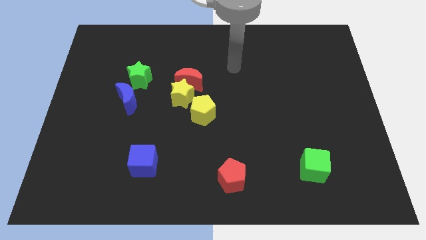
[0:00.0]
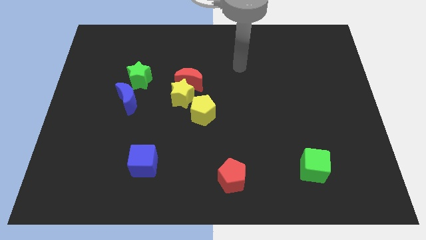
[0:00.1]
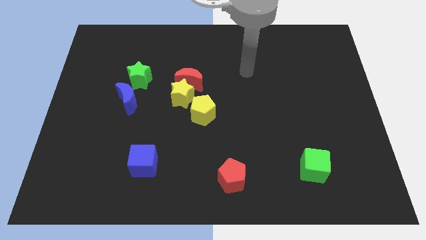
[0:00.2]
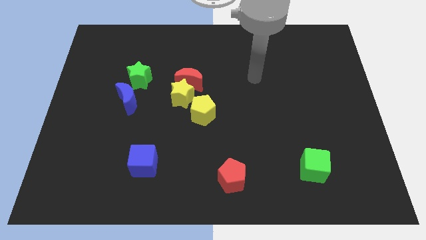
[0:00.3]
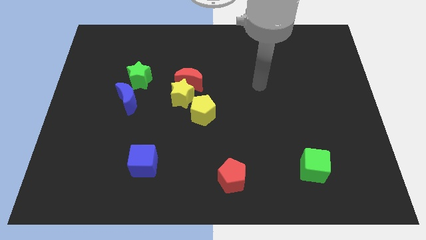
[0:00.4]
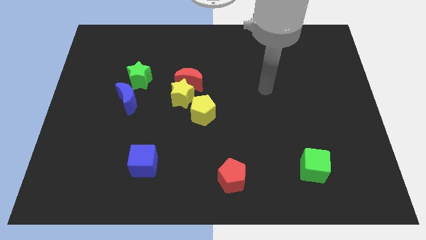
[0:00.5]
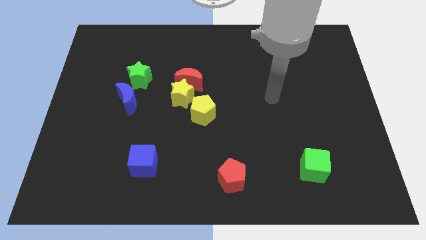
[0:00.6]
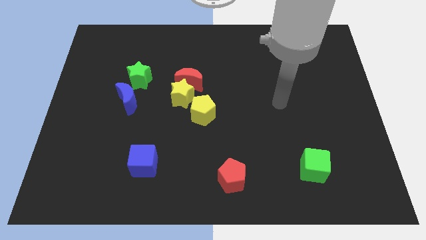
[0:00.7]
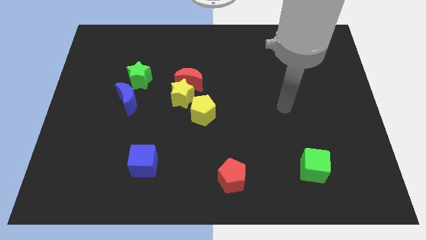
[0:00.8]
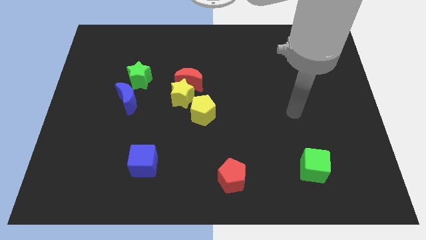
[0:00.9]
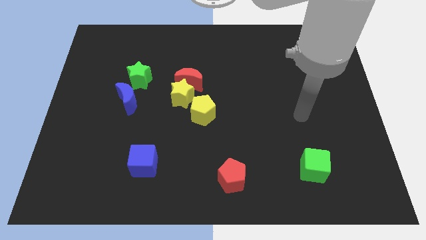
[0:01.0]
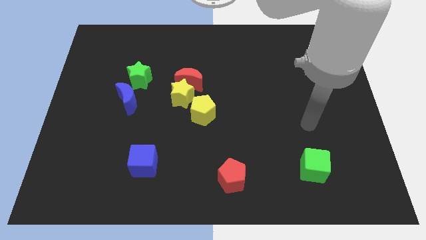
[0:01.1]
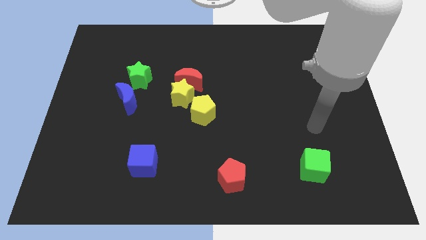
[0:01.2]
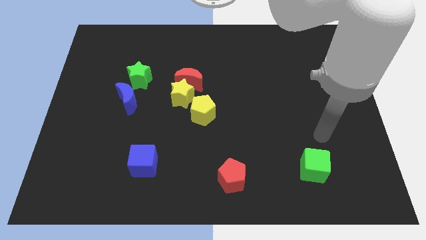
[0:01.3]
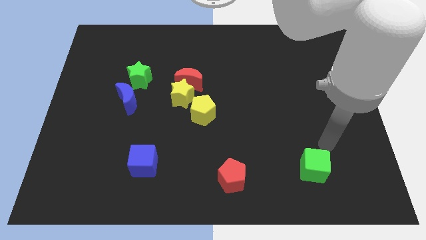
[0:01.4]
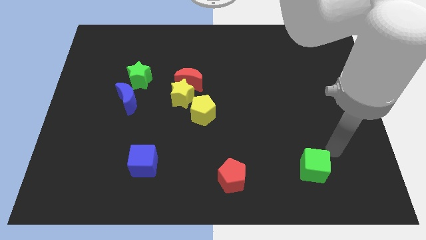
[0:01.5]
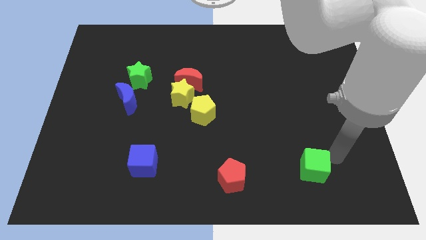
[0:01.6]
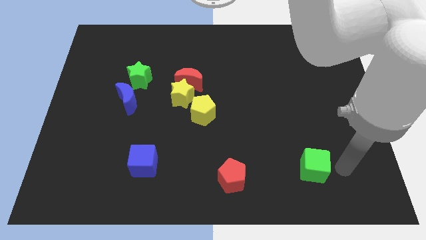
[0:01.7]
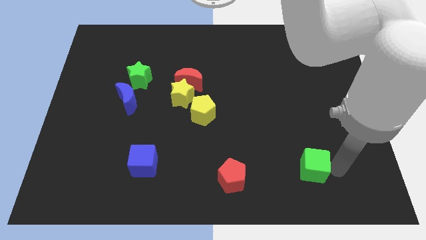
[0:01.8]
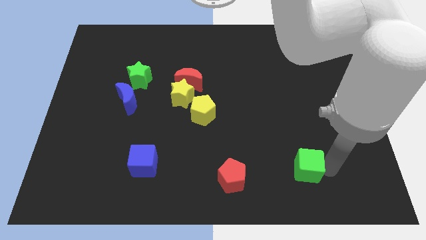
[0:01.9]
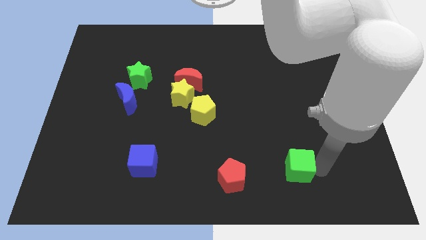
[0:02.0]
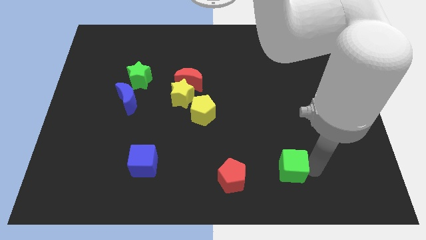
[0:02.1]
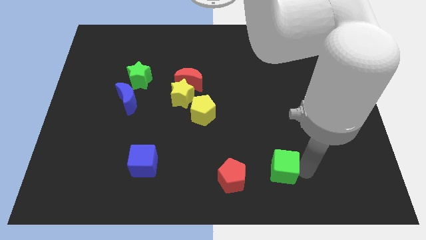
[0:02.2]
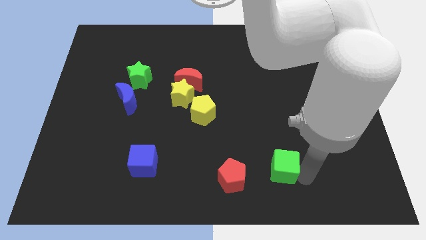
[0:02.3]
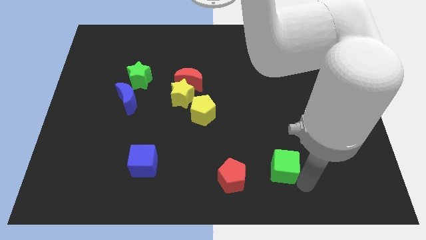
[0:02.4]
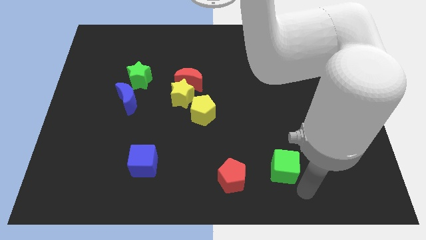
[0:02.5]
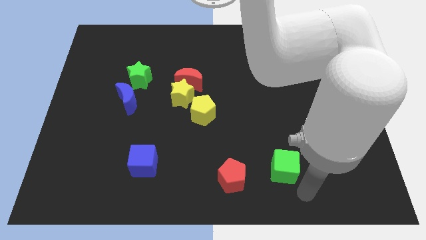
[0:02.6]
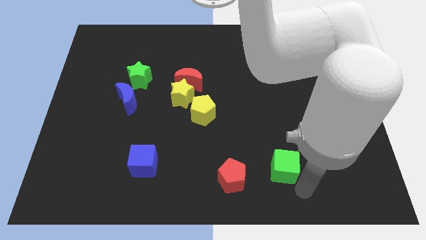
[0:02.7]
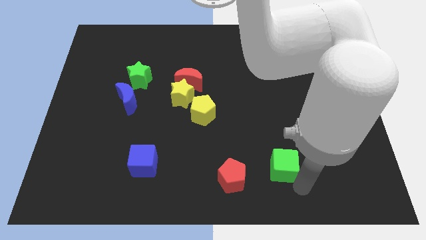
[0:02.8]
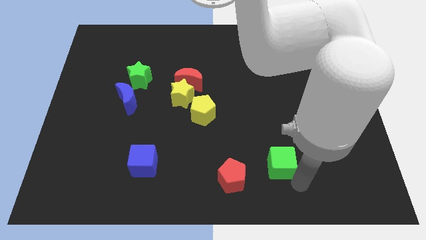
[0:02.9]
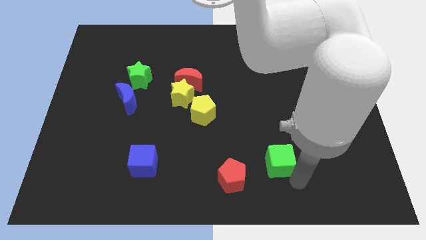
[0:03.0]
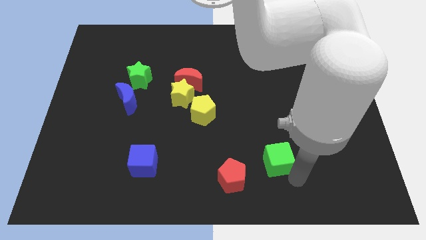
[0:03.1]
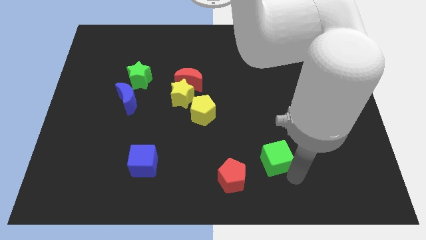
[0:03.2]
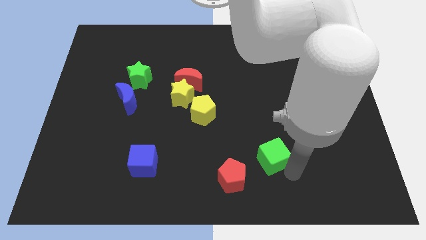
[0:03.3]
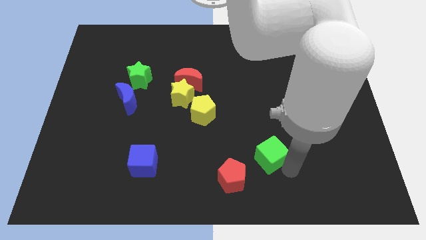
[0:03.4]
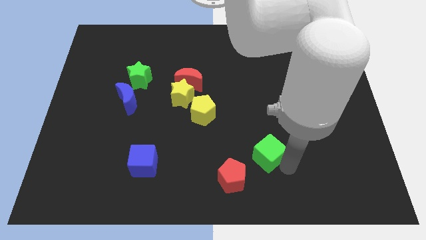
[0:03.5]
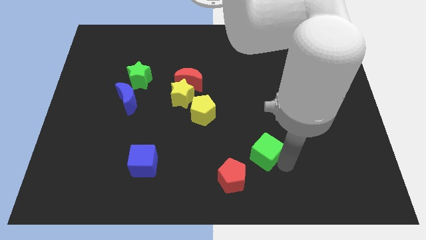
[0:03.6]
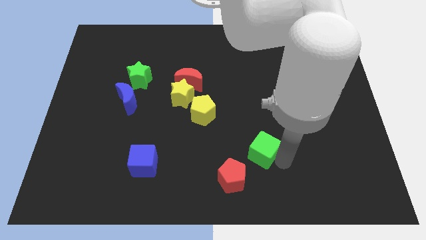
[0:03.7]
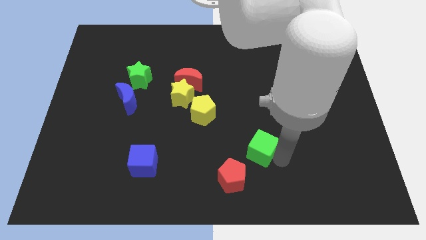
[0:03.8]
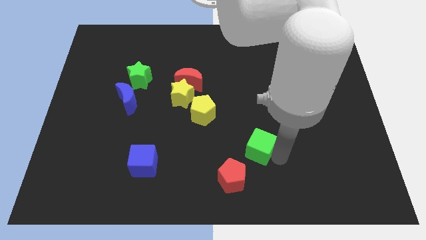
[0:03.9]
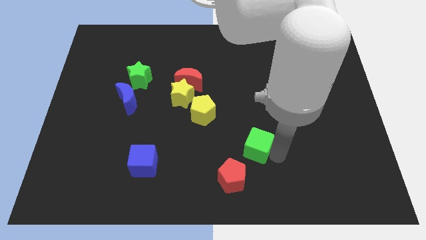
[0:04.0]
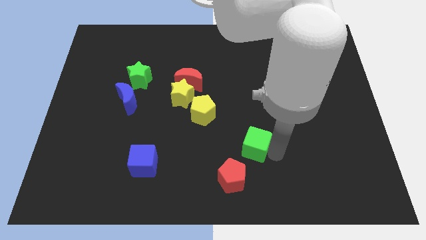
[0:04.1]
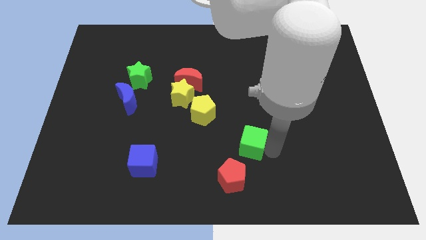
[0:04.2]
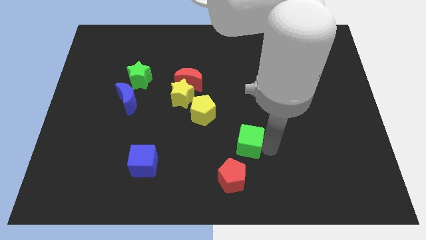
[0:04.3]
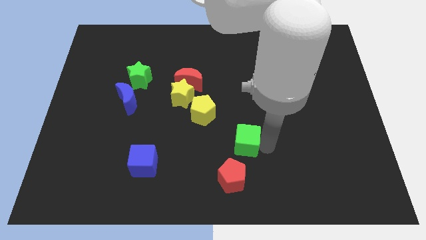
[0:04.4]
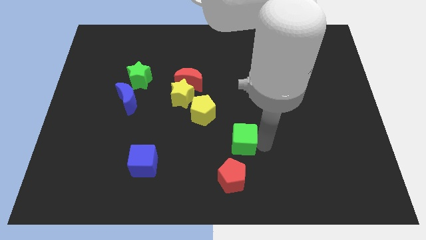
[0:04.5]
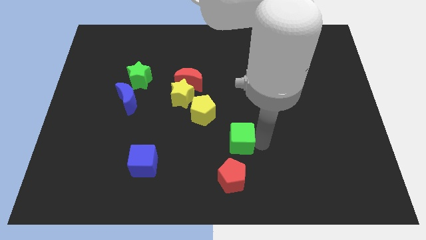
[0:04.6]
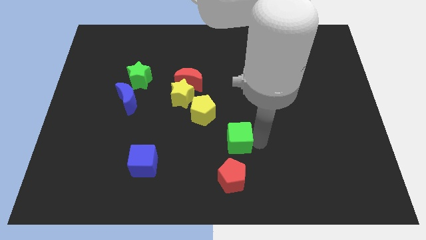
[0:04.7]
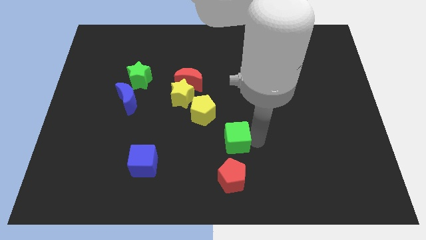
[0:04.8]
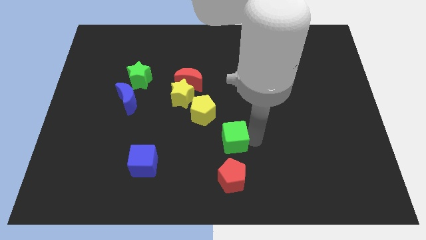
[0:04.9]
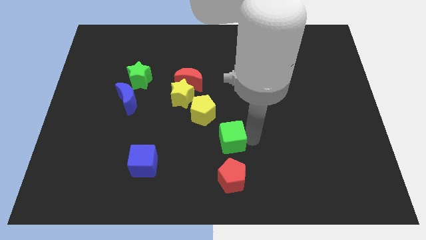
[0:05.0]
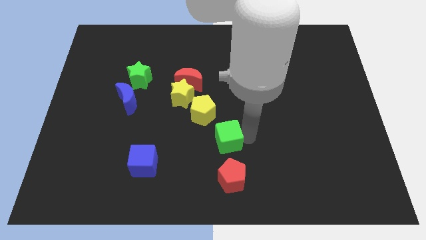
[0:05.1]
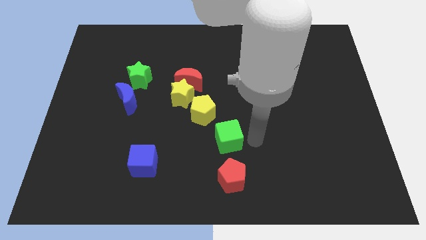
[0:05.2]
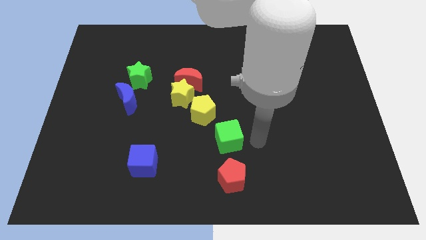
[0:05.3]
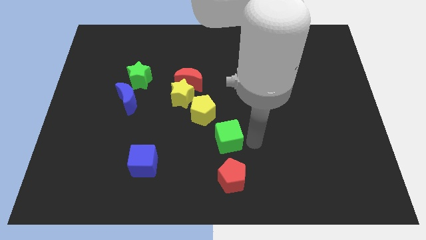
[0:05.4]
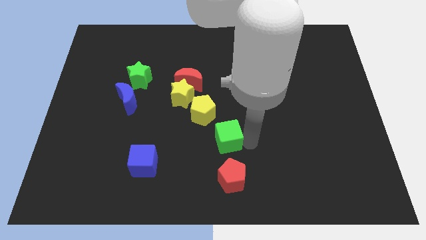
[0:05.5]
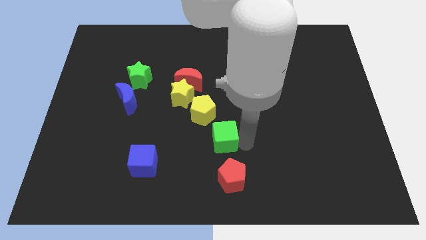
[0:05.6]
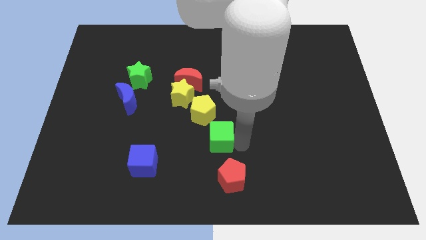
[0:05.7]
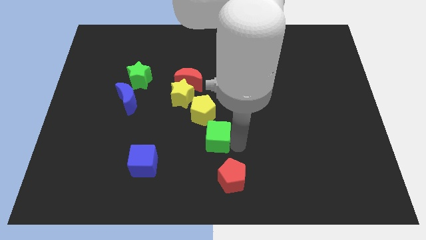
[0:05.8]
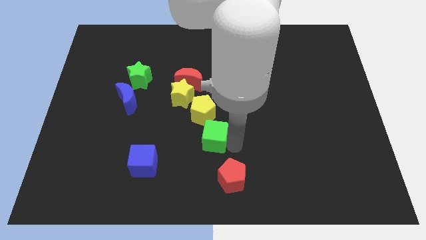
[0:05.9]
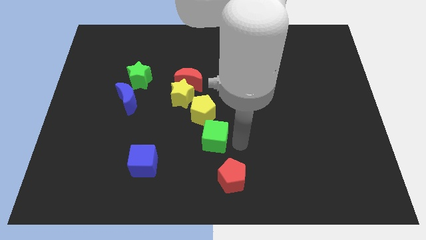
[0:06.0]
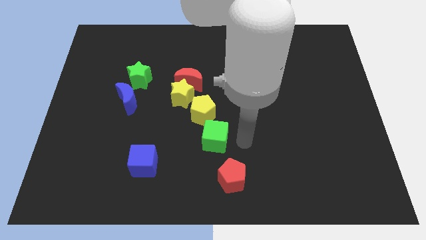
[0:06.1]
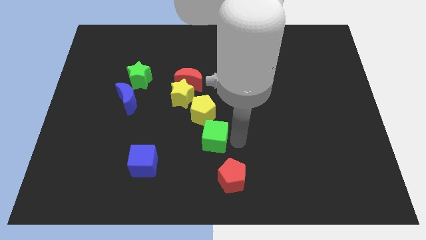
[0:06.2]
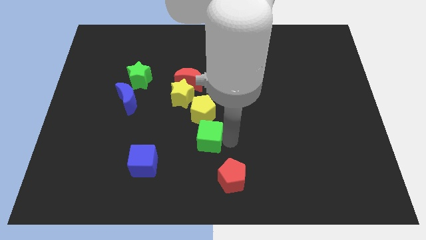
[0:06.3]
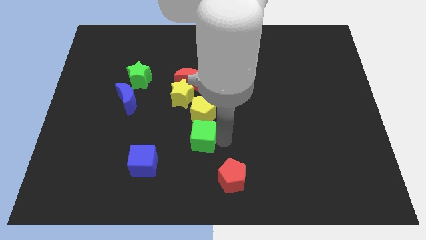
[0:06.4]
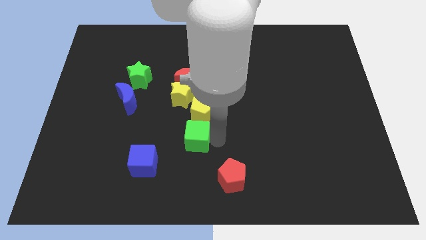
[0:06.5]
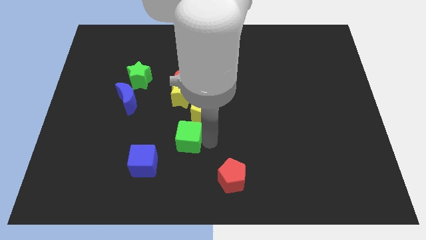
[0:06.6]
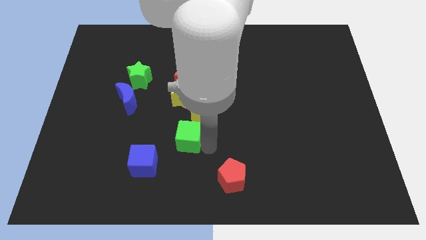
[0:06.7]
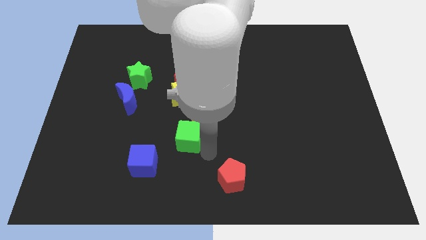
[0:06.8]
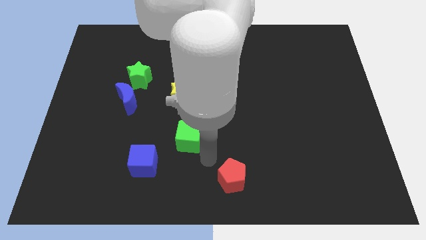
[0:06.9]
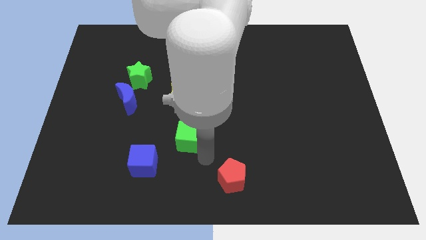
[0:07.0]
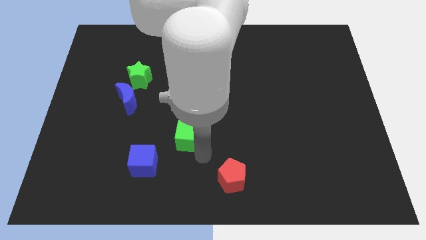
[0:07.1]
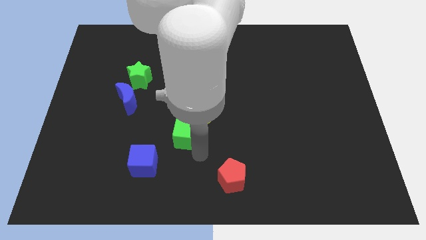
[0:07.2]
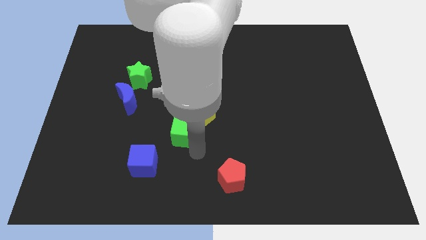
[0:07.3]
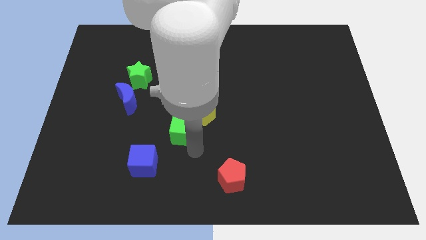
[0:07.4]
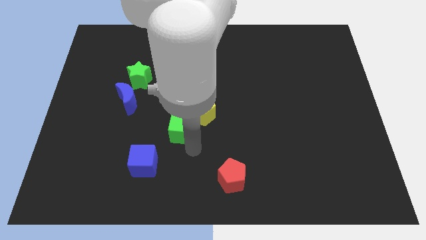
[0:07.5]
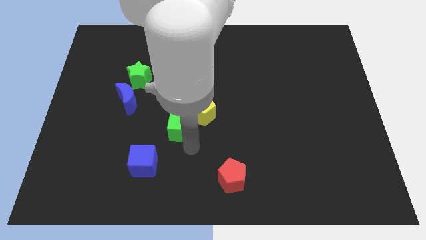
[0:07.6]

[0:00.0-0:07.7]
put the green cube to the left of the yellow pentagon
